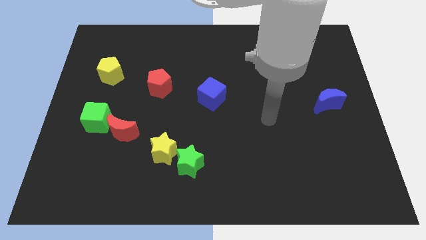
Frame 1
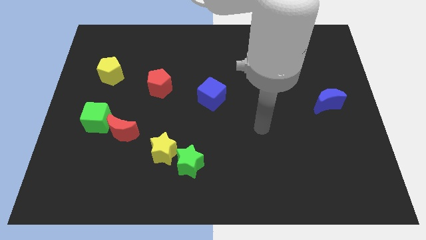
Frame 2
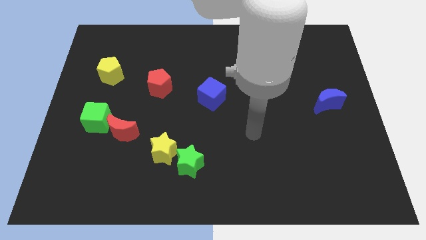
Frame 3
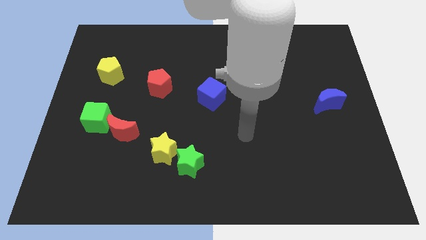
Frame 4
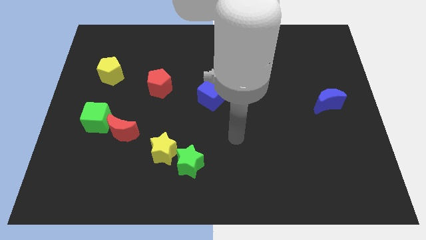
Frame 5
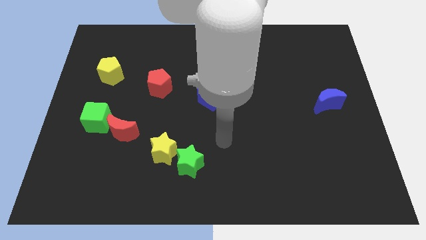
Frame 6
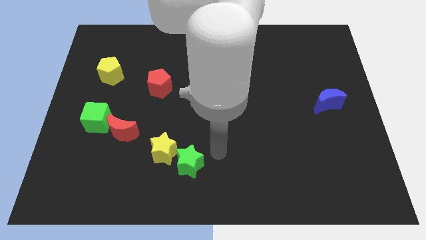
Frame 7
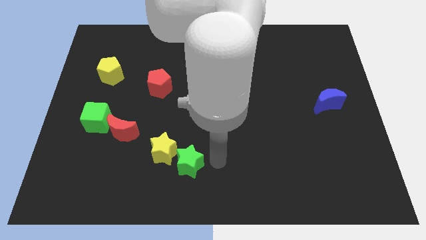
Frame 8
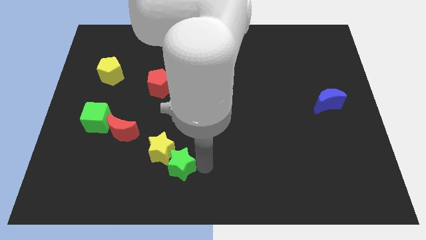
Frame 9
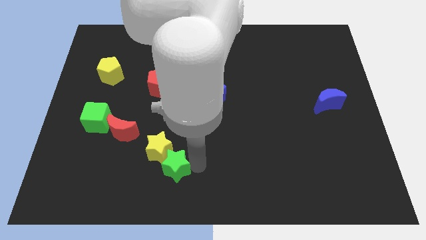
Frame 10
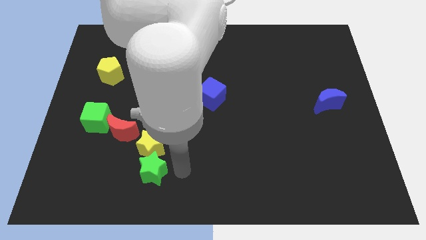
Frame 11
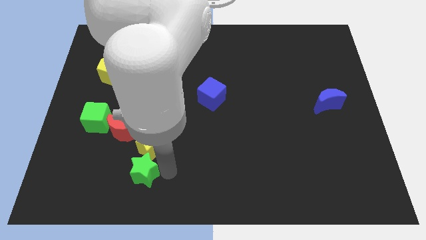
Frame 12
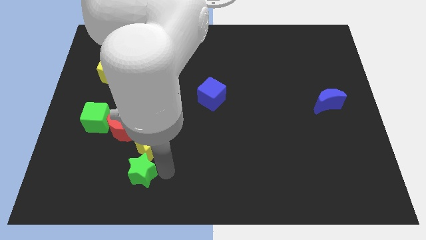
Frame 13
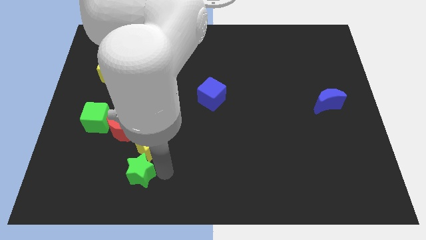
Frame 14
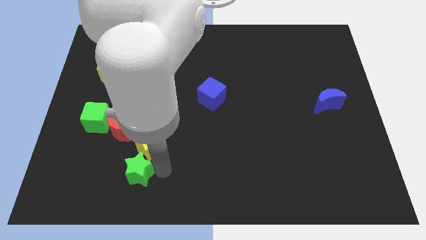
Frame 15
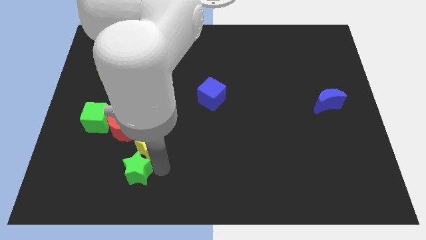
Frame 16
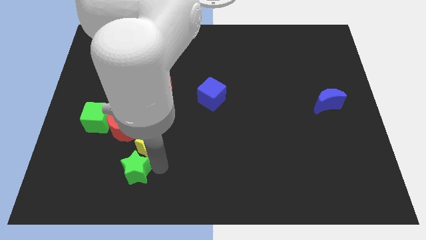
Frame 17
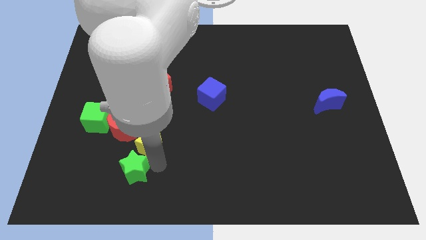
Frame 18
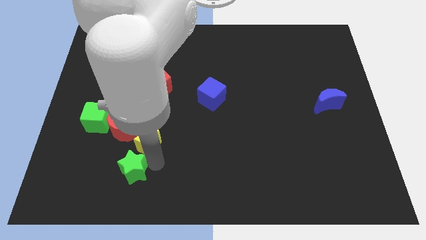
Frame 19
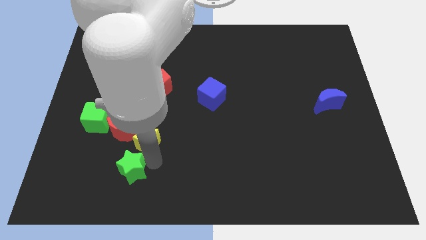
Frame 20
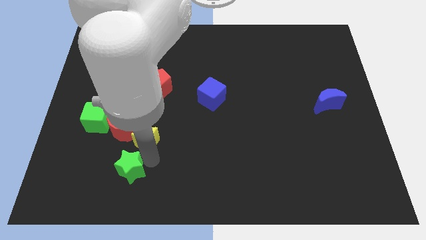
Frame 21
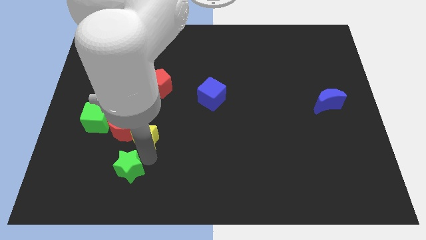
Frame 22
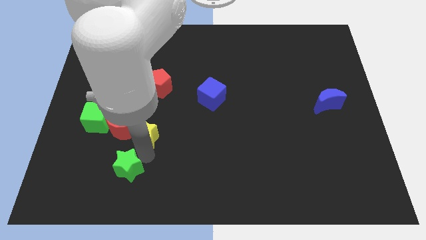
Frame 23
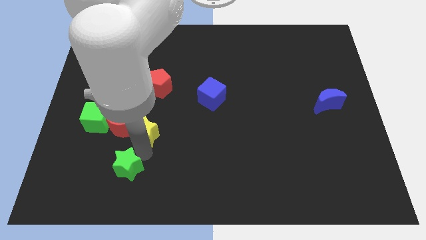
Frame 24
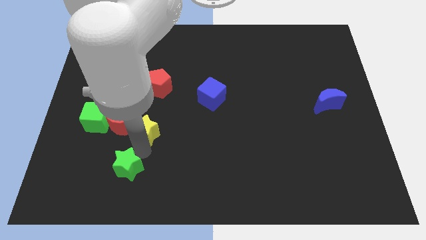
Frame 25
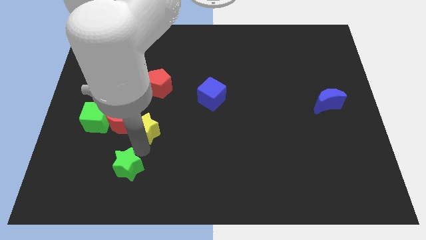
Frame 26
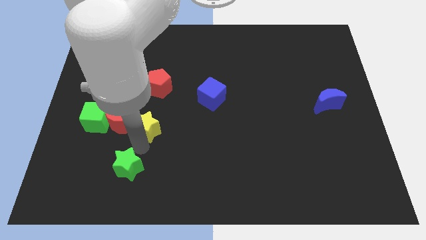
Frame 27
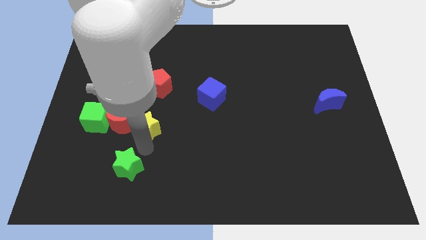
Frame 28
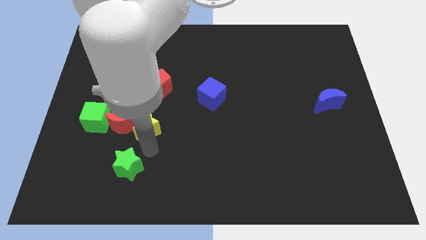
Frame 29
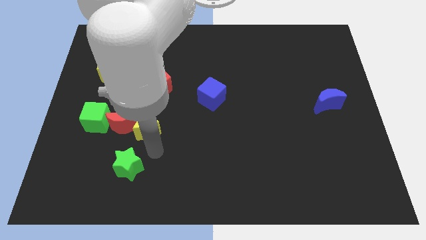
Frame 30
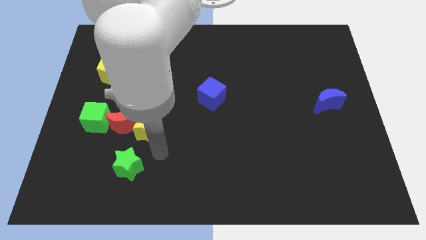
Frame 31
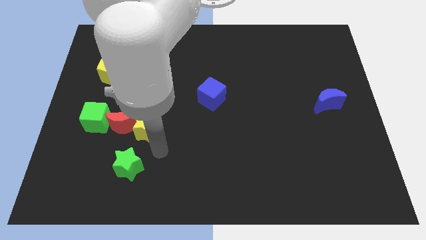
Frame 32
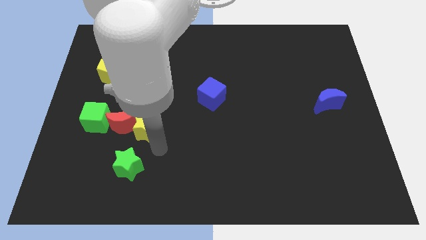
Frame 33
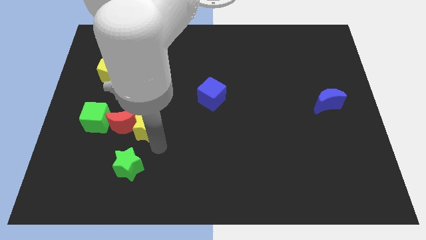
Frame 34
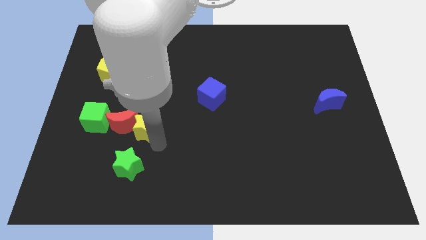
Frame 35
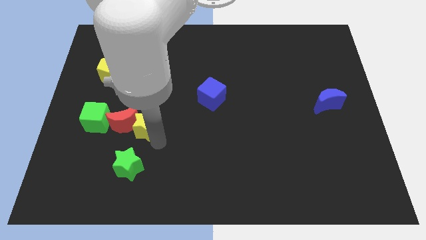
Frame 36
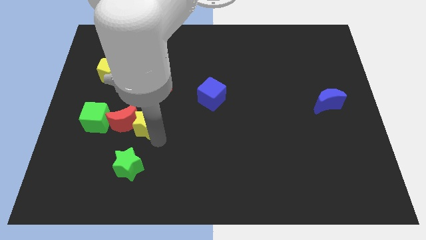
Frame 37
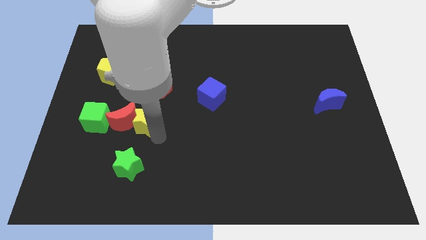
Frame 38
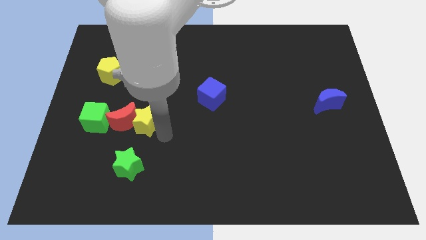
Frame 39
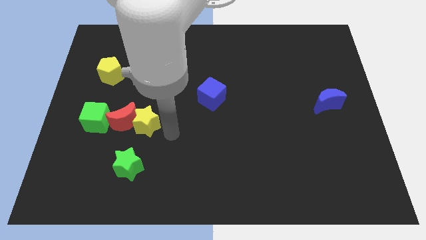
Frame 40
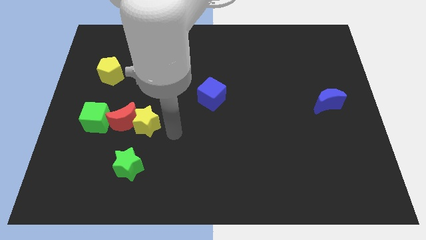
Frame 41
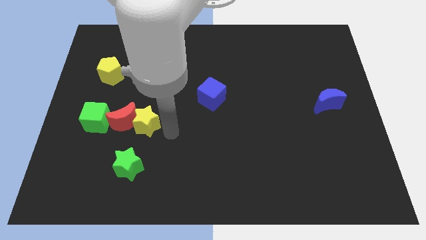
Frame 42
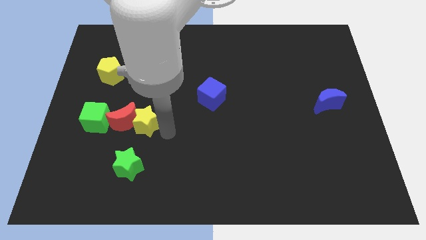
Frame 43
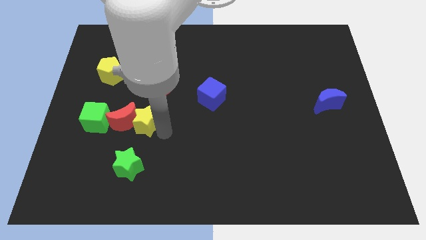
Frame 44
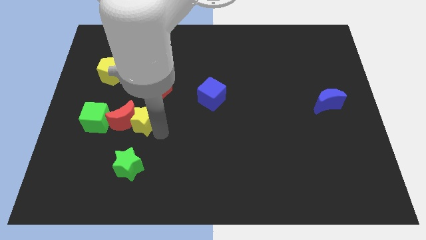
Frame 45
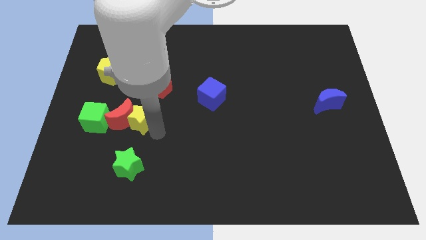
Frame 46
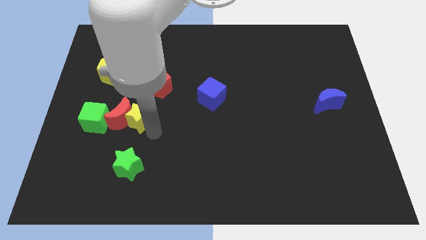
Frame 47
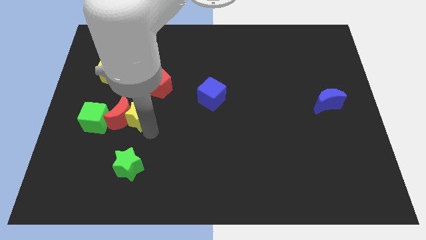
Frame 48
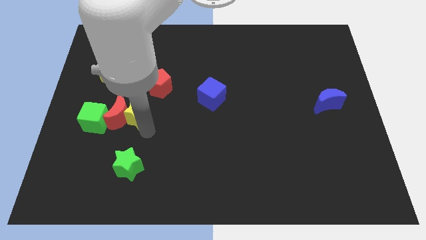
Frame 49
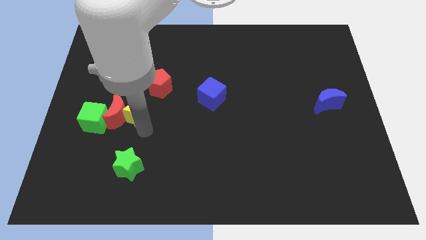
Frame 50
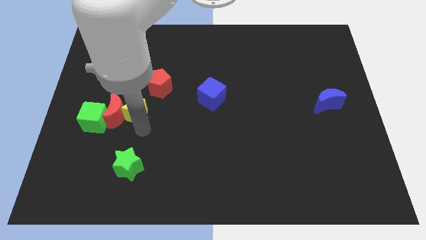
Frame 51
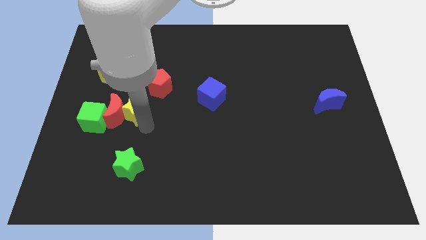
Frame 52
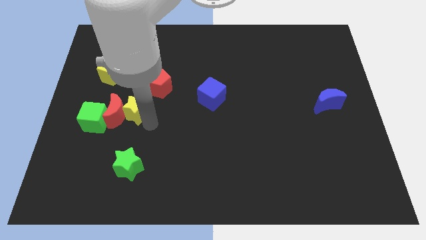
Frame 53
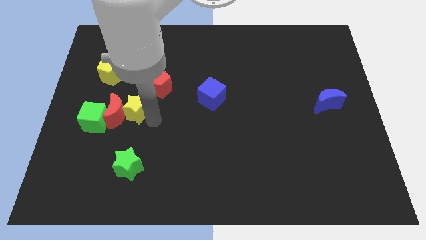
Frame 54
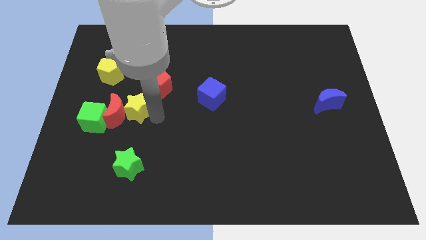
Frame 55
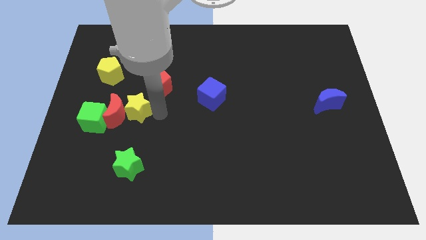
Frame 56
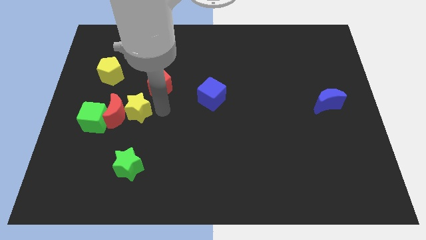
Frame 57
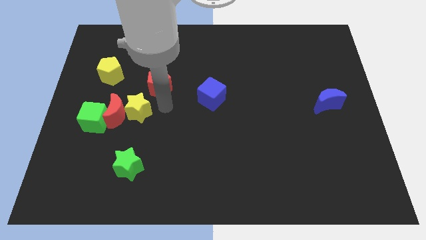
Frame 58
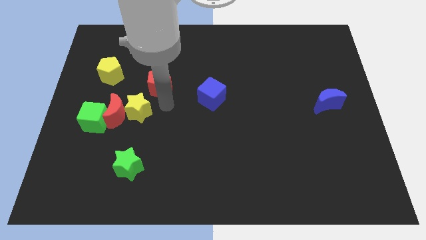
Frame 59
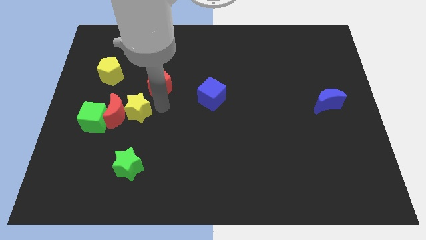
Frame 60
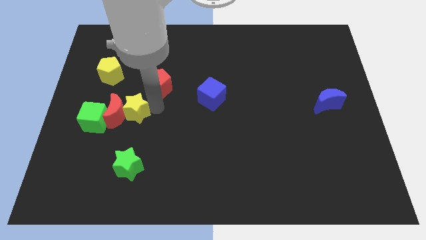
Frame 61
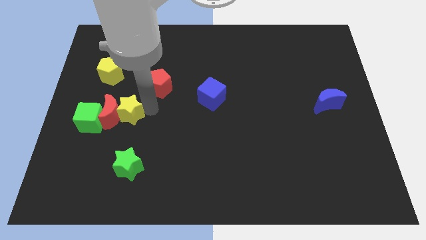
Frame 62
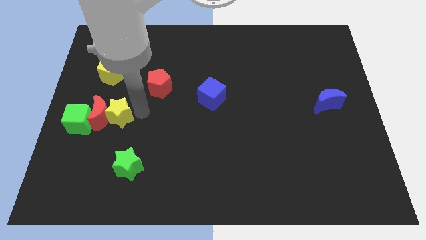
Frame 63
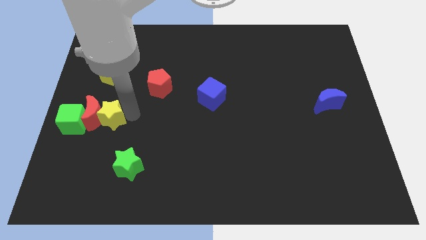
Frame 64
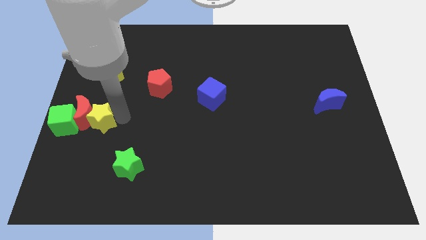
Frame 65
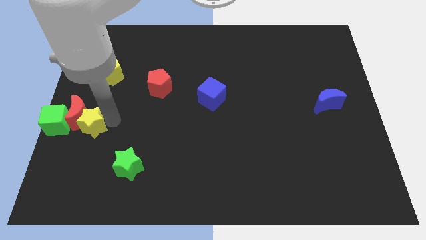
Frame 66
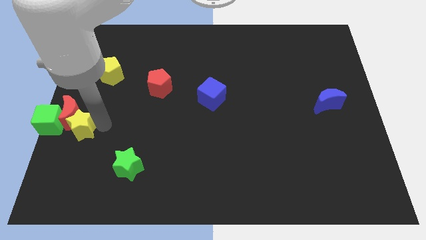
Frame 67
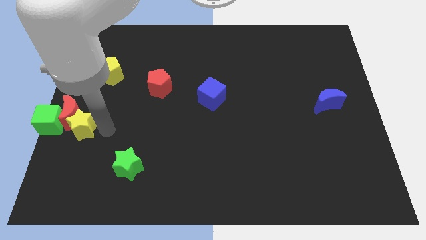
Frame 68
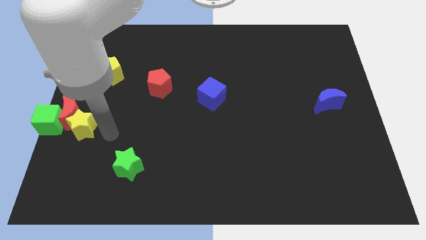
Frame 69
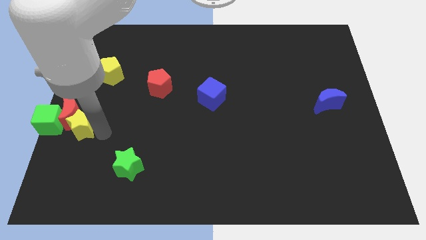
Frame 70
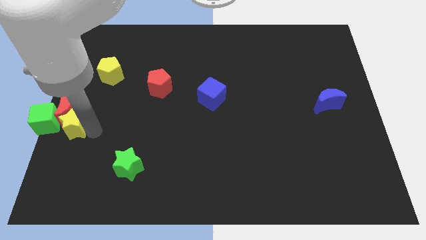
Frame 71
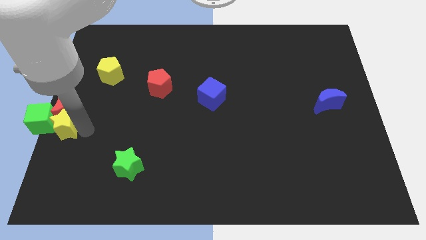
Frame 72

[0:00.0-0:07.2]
push the yellow star close to the green cube

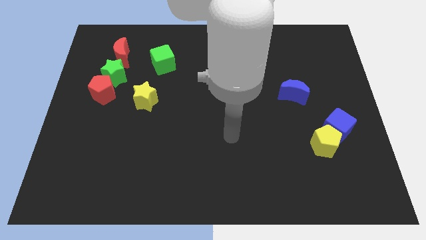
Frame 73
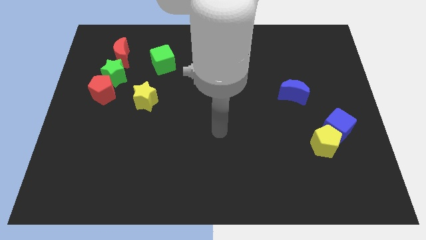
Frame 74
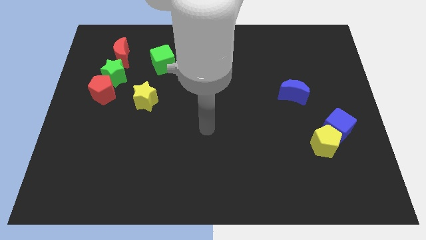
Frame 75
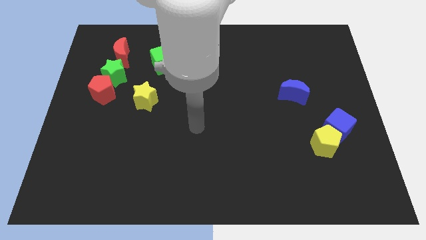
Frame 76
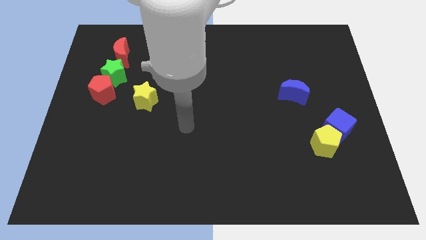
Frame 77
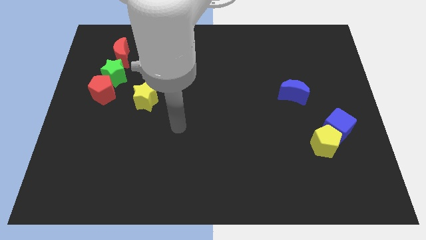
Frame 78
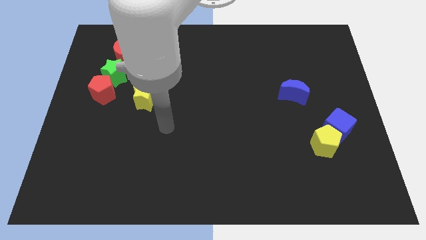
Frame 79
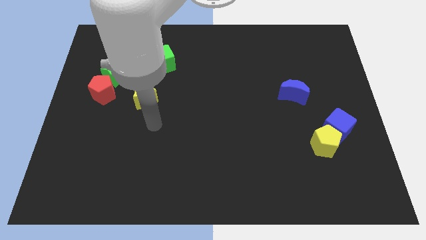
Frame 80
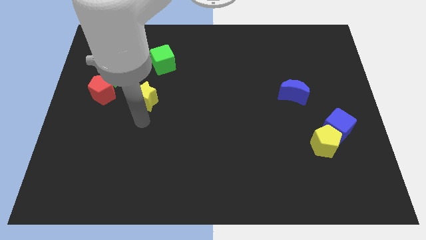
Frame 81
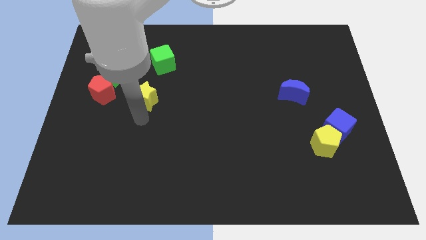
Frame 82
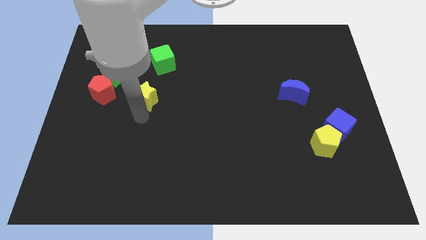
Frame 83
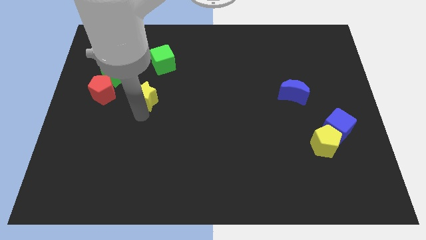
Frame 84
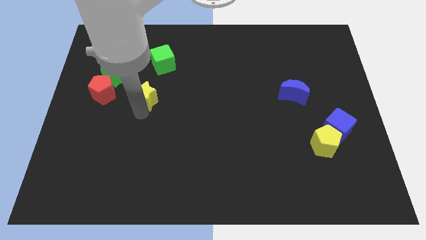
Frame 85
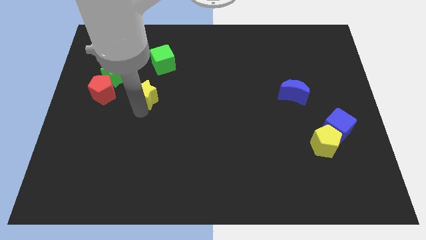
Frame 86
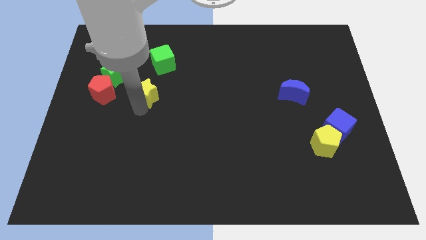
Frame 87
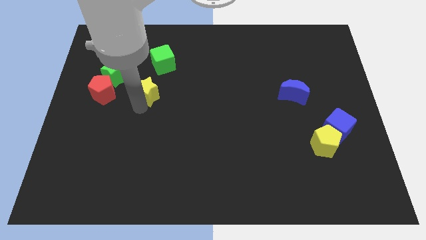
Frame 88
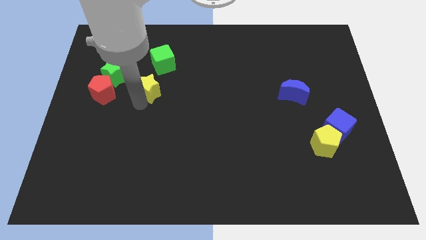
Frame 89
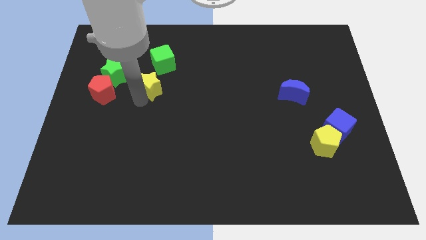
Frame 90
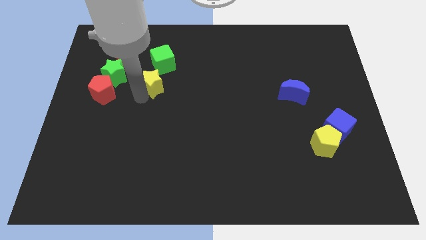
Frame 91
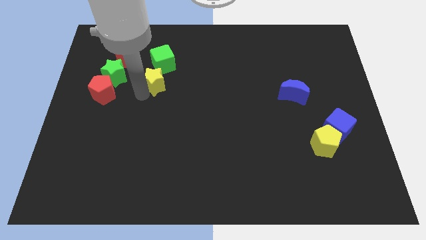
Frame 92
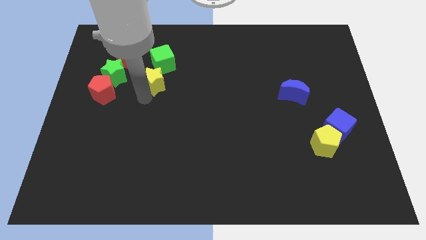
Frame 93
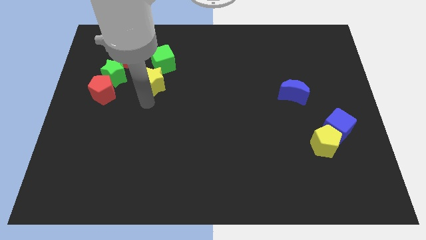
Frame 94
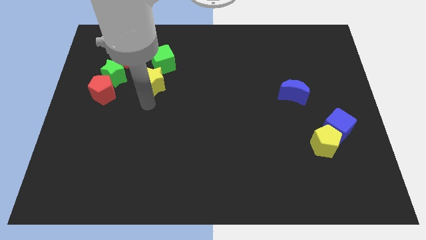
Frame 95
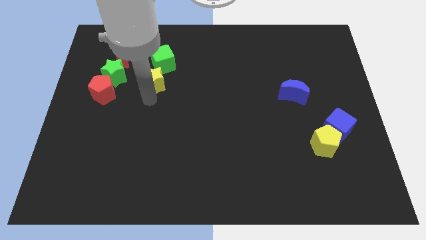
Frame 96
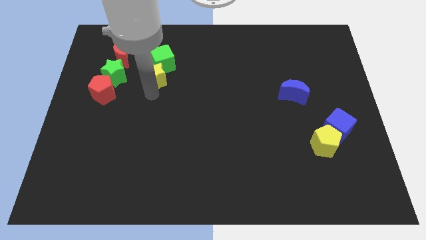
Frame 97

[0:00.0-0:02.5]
push the yellow star towards the green cube
